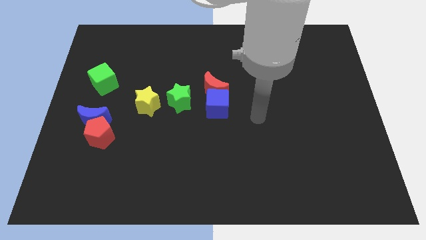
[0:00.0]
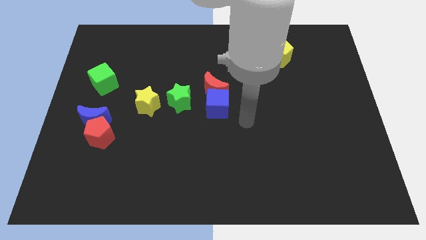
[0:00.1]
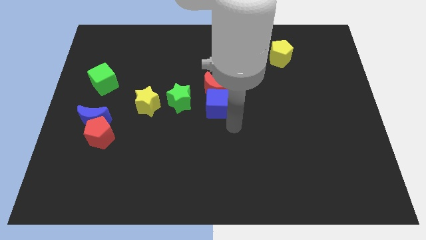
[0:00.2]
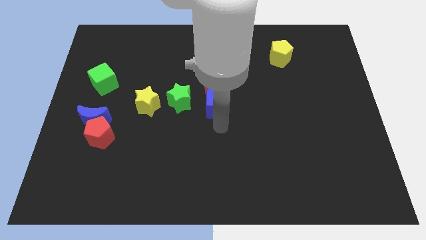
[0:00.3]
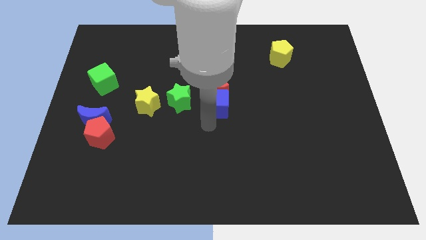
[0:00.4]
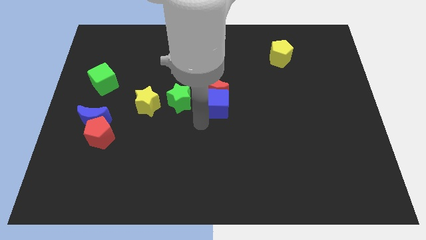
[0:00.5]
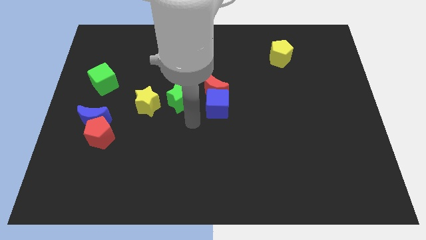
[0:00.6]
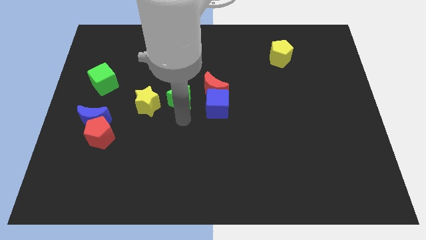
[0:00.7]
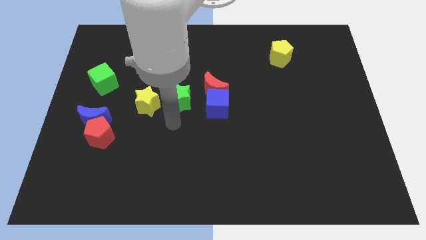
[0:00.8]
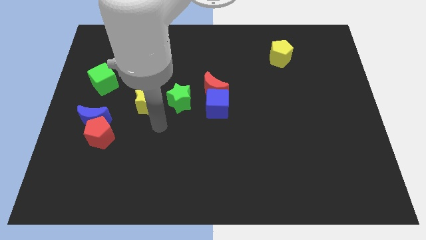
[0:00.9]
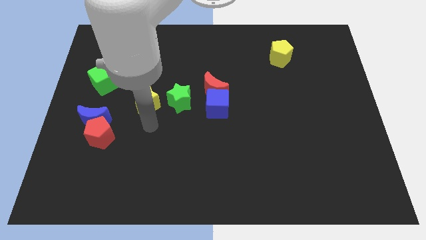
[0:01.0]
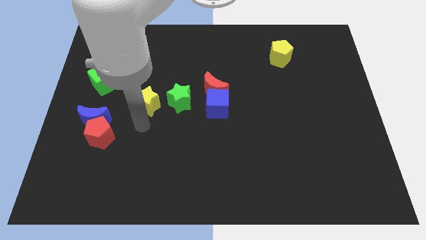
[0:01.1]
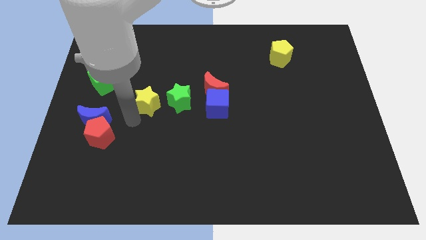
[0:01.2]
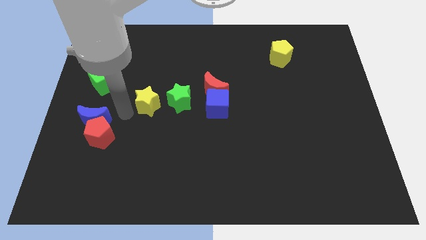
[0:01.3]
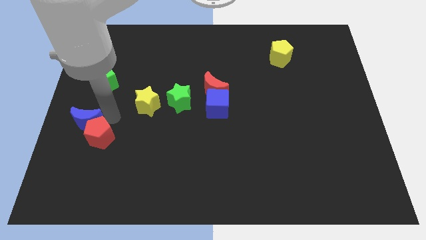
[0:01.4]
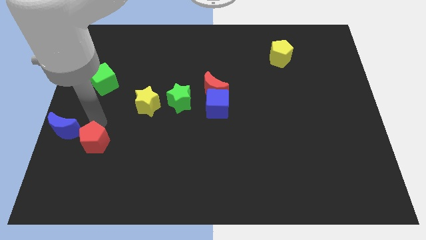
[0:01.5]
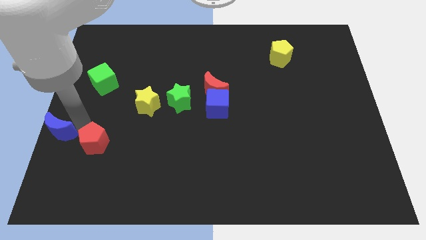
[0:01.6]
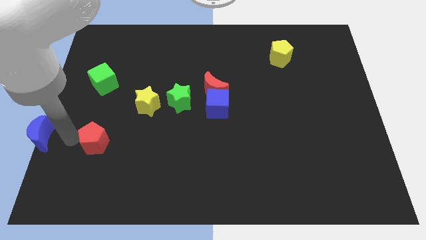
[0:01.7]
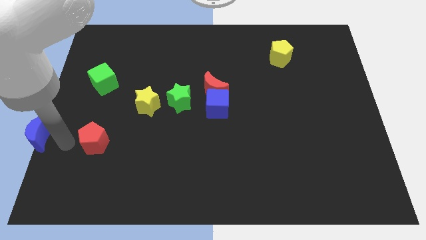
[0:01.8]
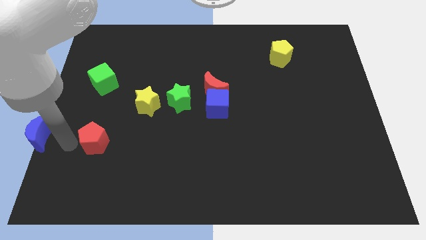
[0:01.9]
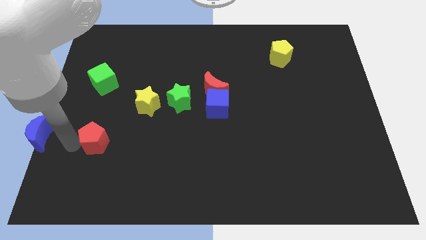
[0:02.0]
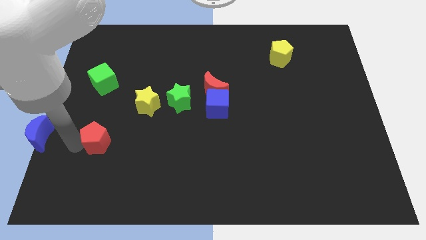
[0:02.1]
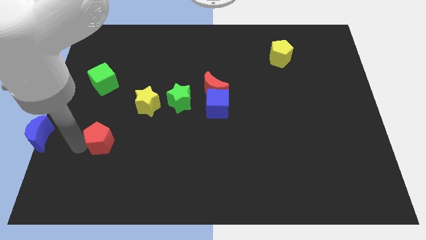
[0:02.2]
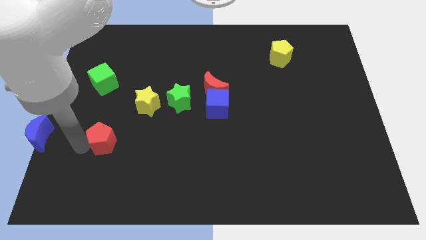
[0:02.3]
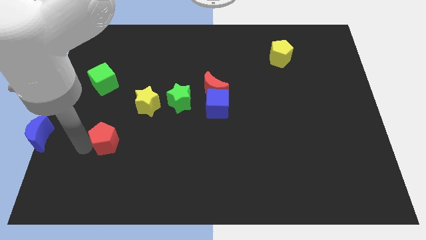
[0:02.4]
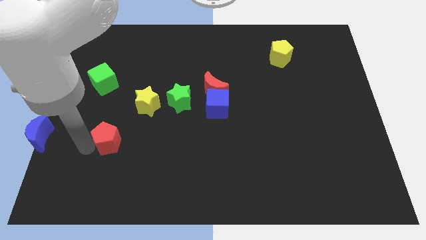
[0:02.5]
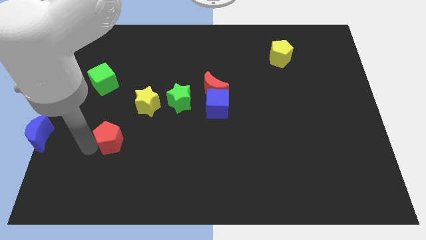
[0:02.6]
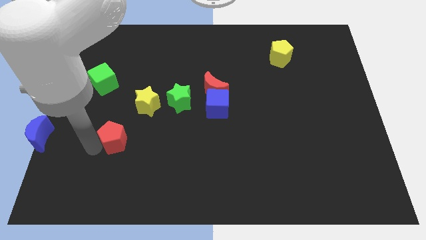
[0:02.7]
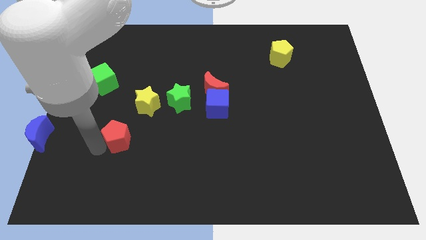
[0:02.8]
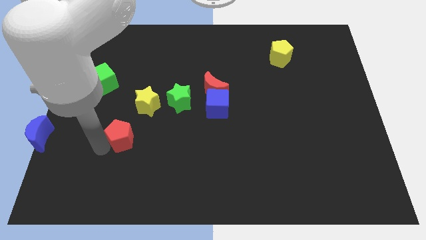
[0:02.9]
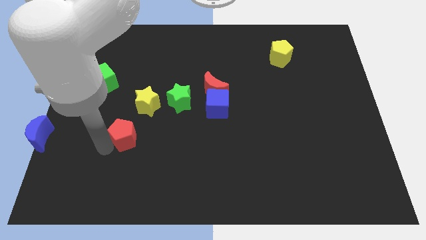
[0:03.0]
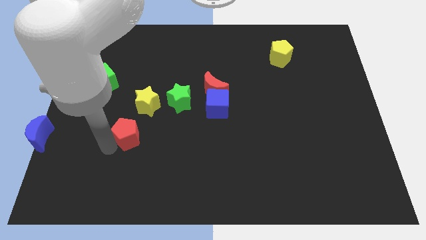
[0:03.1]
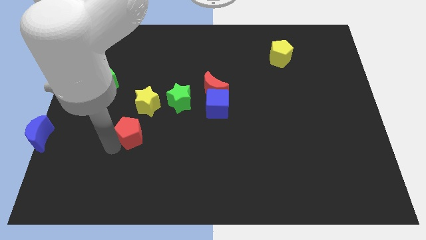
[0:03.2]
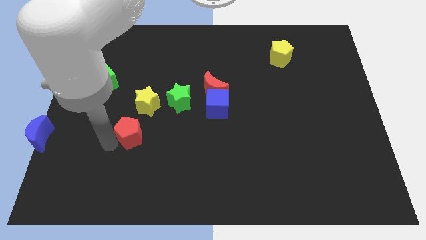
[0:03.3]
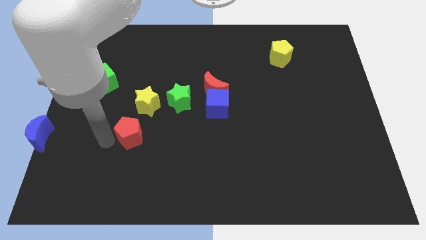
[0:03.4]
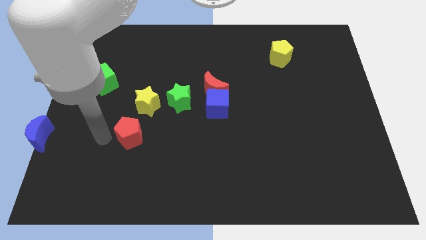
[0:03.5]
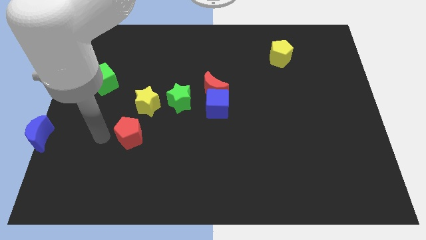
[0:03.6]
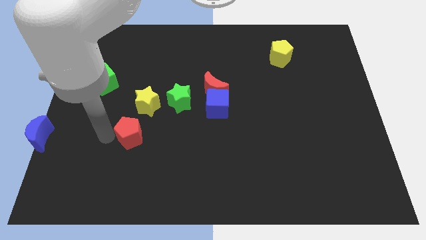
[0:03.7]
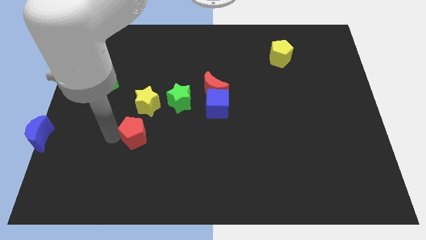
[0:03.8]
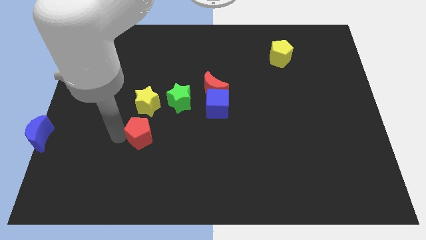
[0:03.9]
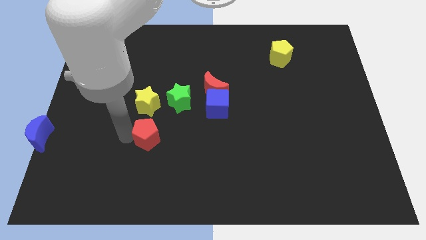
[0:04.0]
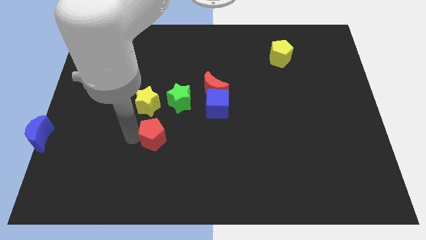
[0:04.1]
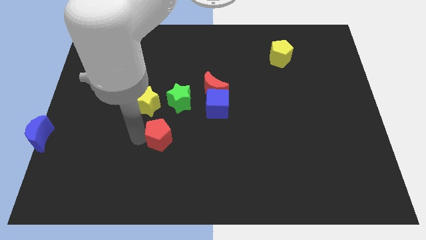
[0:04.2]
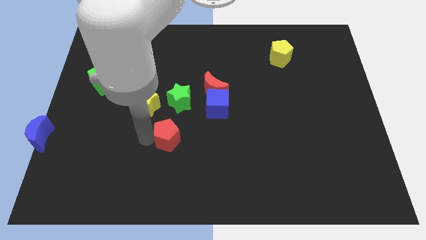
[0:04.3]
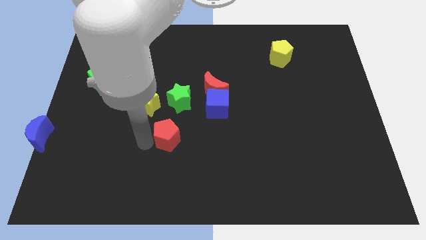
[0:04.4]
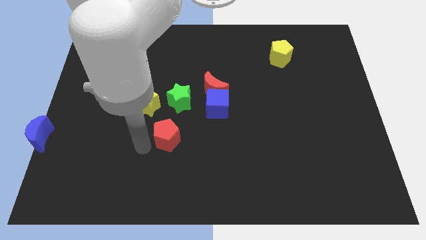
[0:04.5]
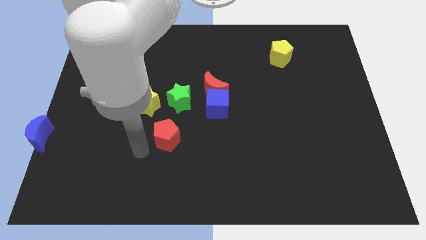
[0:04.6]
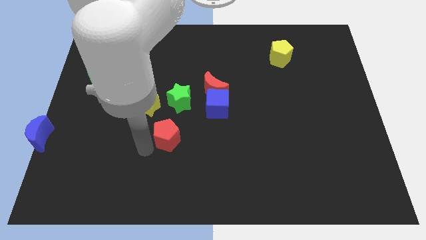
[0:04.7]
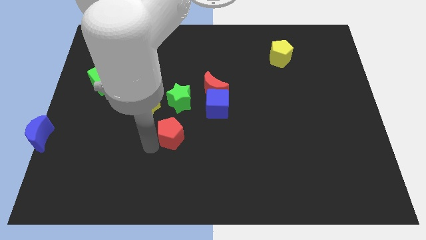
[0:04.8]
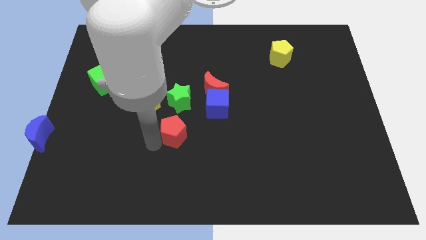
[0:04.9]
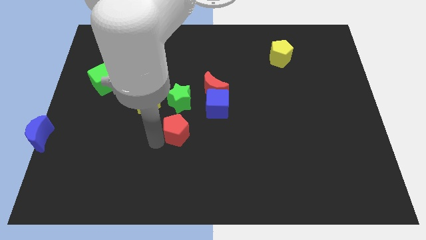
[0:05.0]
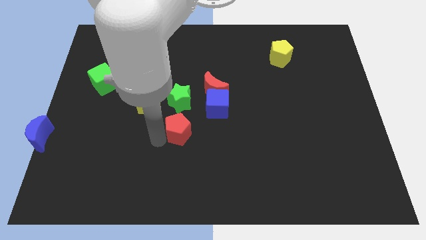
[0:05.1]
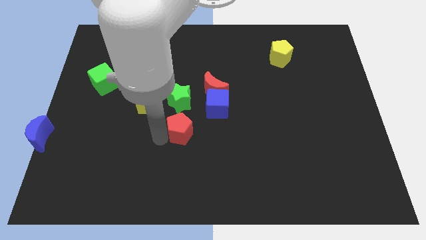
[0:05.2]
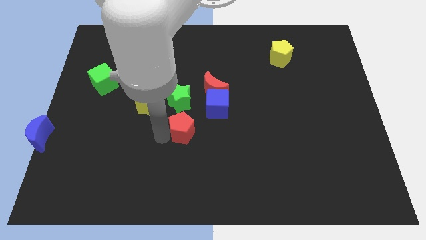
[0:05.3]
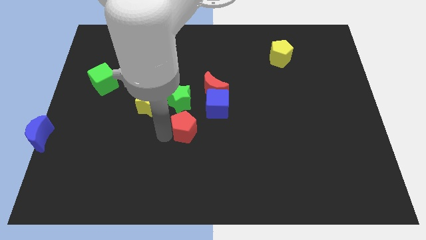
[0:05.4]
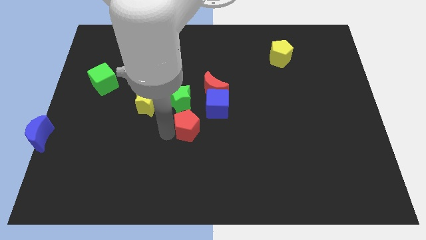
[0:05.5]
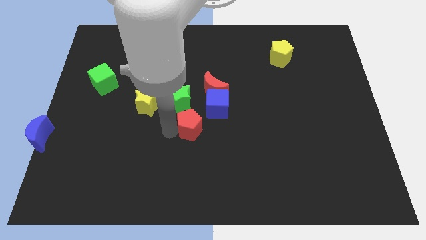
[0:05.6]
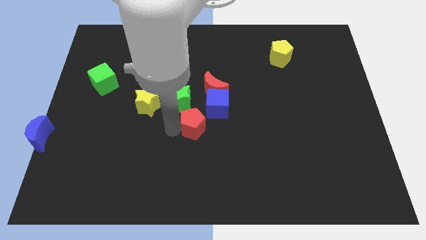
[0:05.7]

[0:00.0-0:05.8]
push the red pentagon below the red moon

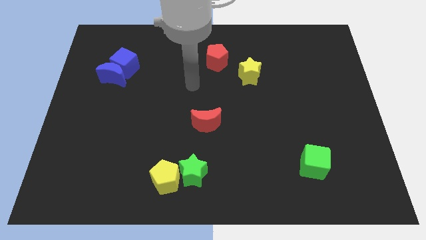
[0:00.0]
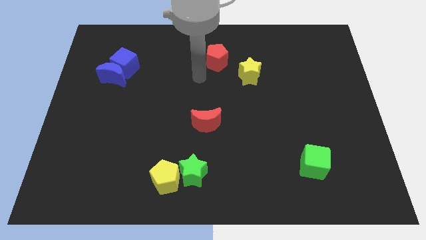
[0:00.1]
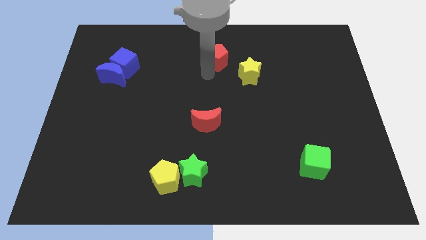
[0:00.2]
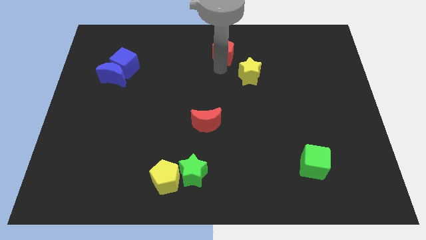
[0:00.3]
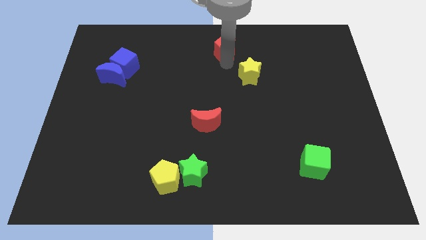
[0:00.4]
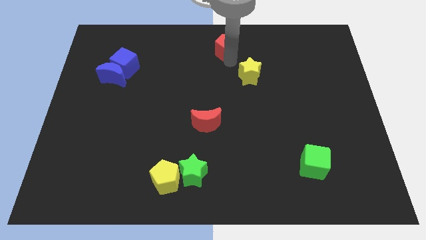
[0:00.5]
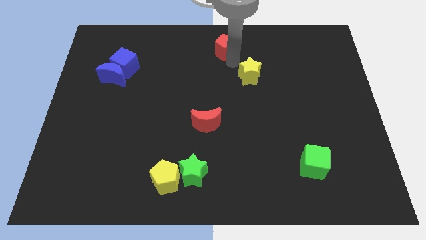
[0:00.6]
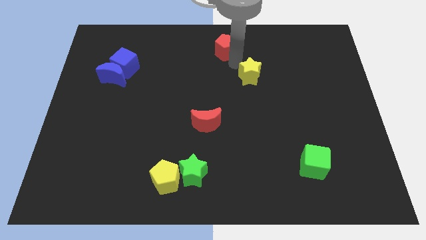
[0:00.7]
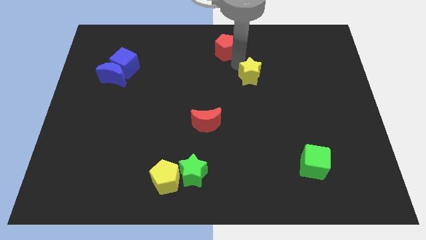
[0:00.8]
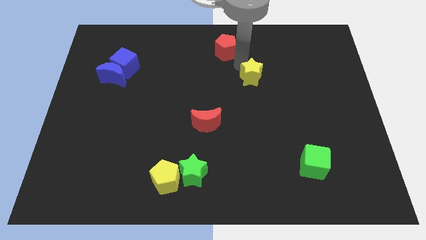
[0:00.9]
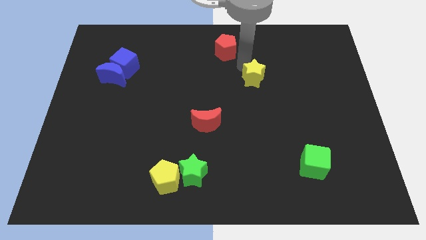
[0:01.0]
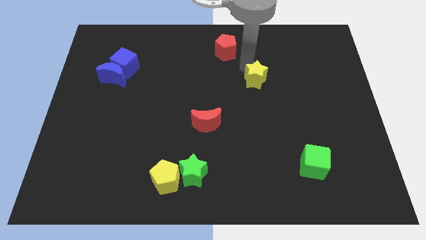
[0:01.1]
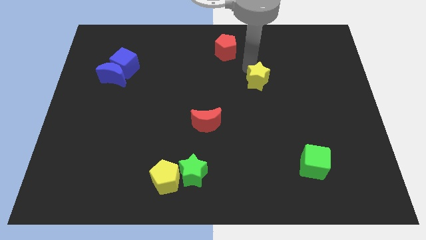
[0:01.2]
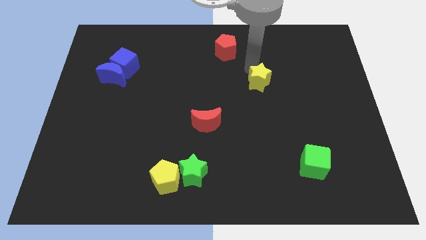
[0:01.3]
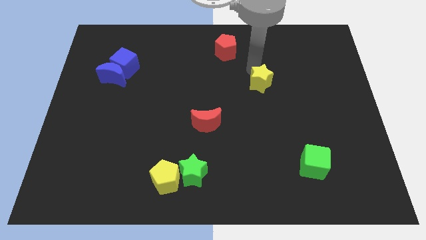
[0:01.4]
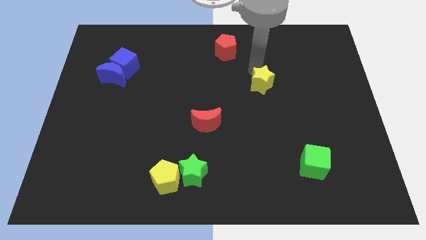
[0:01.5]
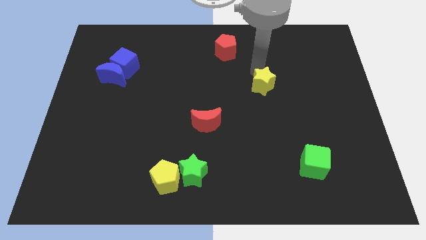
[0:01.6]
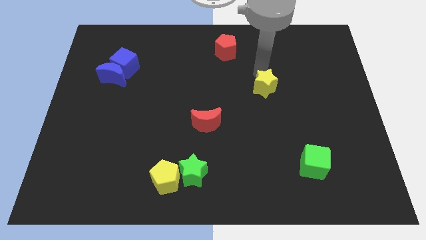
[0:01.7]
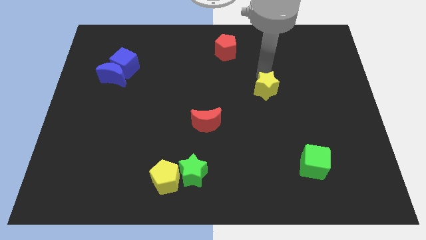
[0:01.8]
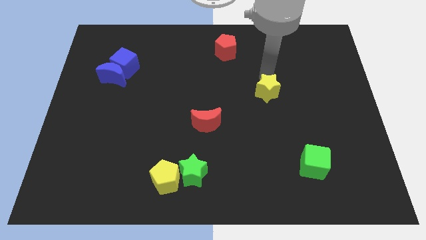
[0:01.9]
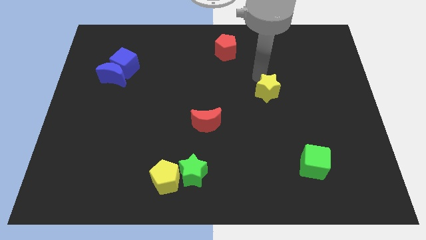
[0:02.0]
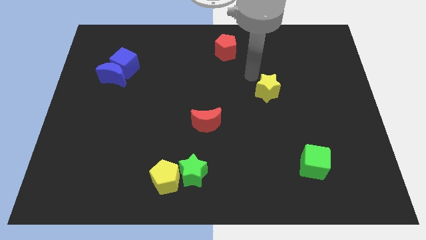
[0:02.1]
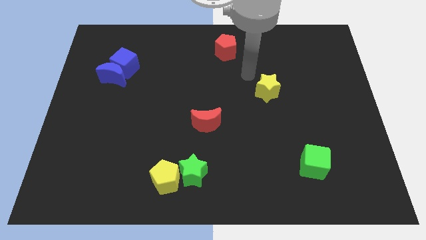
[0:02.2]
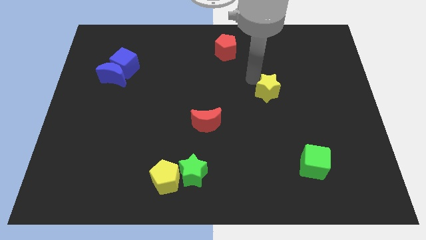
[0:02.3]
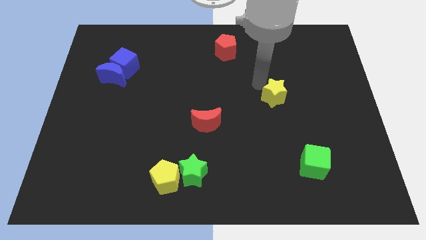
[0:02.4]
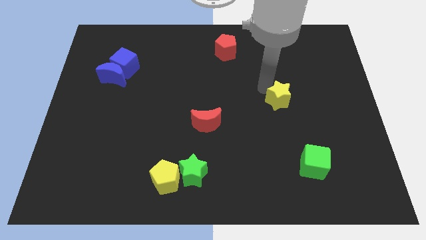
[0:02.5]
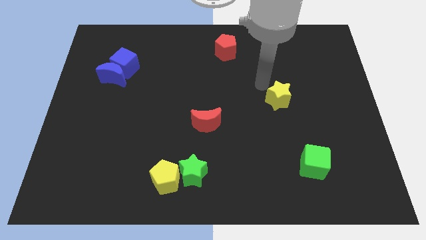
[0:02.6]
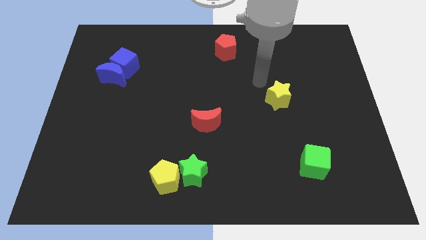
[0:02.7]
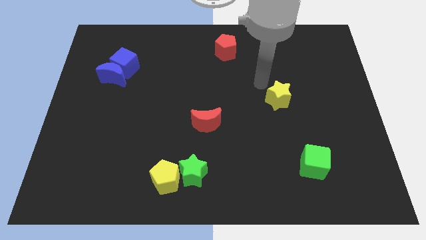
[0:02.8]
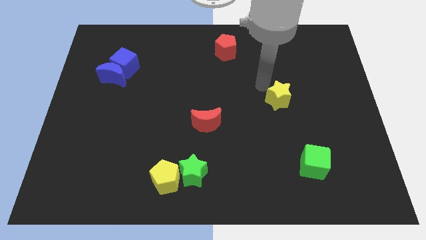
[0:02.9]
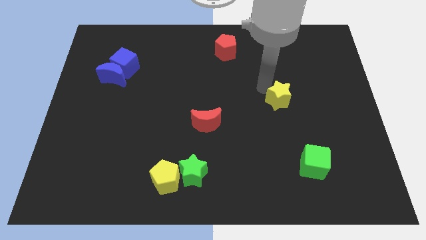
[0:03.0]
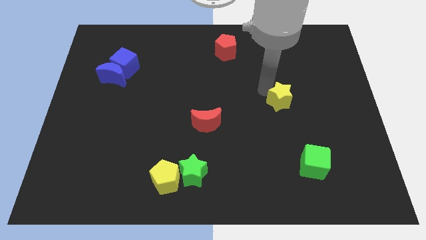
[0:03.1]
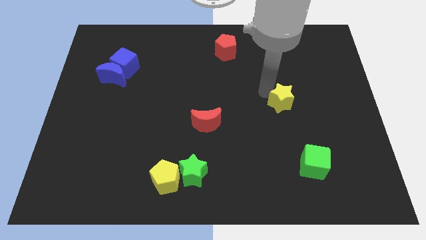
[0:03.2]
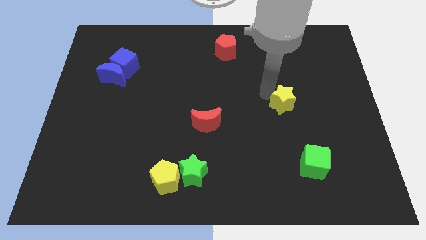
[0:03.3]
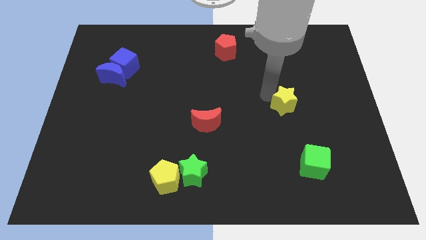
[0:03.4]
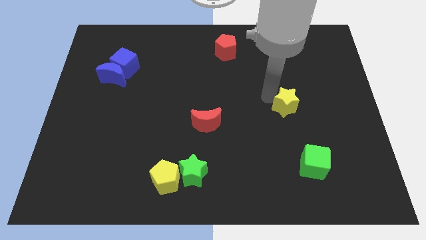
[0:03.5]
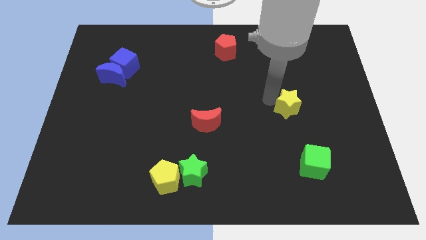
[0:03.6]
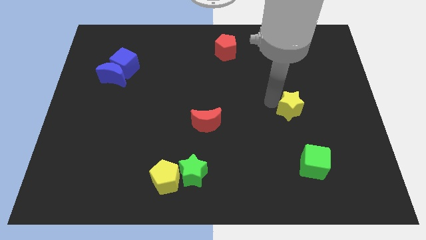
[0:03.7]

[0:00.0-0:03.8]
slide the yellow star to the top of the green cube
